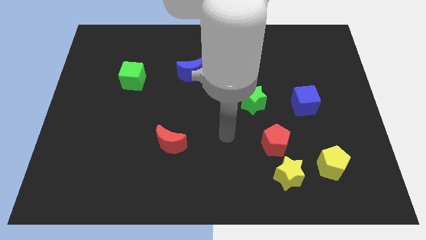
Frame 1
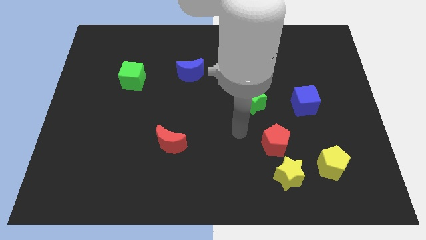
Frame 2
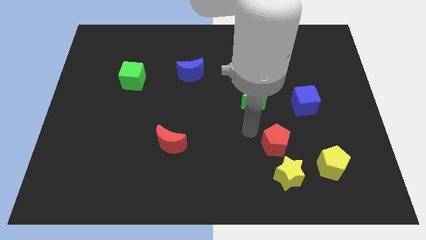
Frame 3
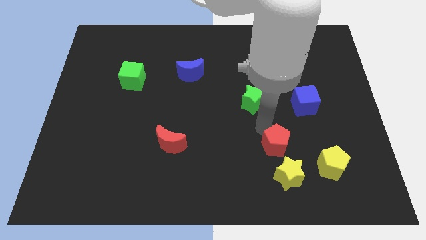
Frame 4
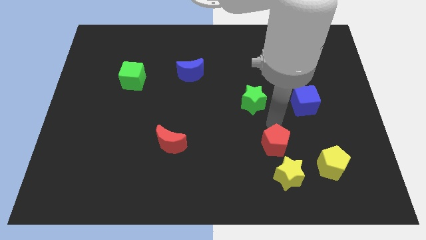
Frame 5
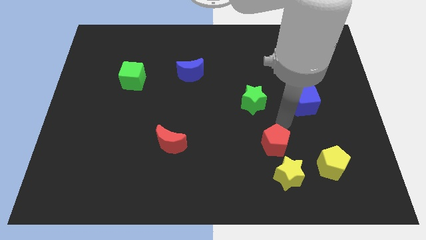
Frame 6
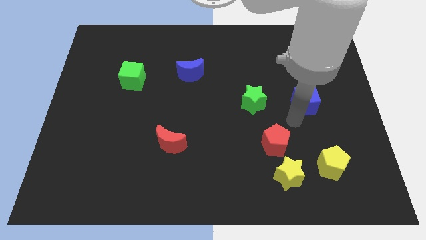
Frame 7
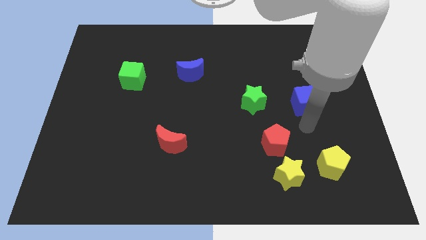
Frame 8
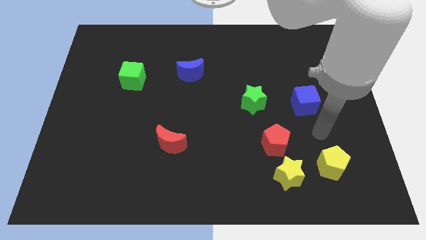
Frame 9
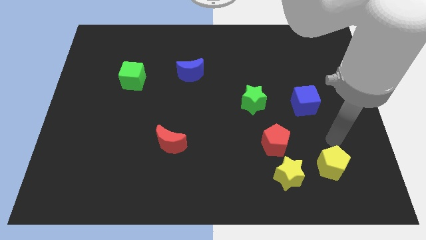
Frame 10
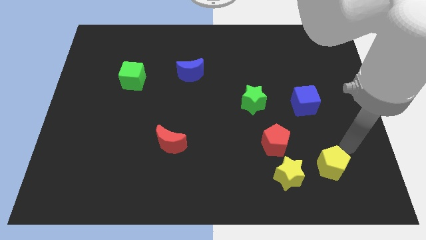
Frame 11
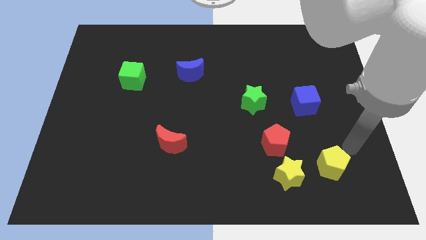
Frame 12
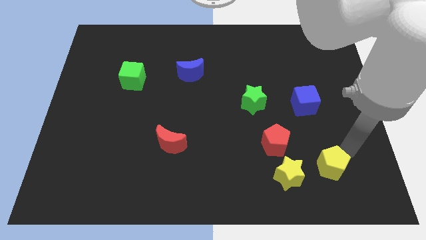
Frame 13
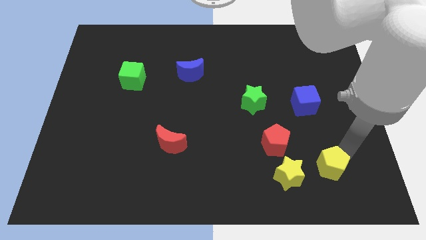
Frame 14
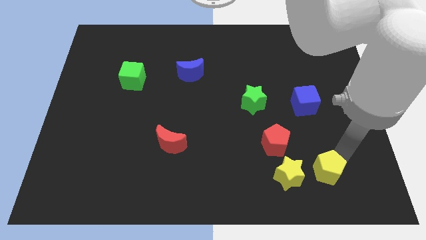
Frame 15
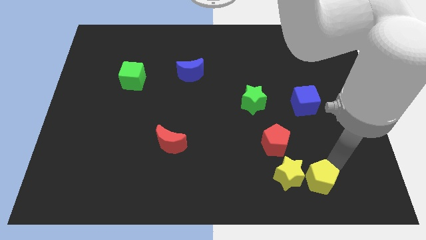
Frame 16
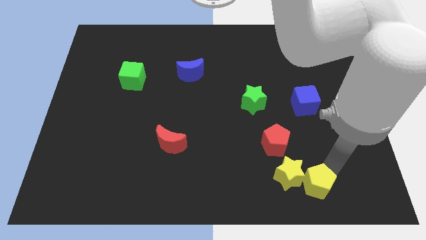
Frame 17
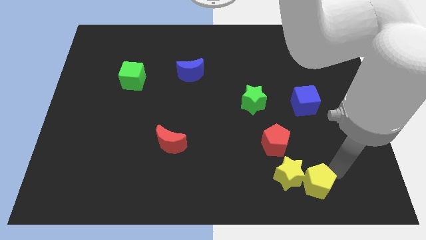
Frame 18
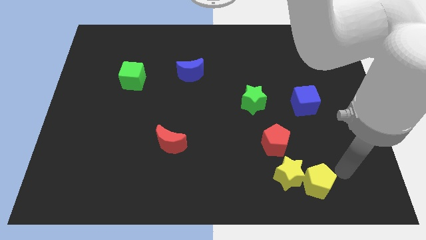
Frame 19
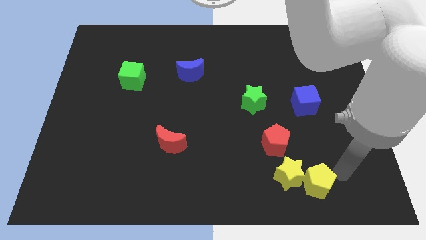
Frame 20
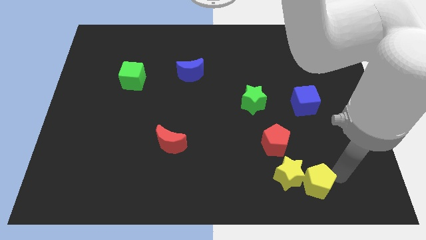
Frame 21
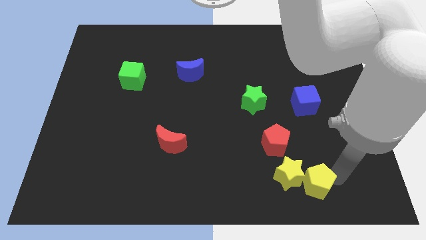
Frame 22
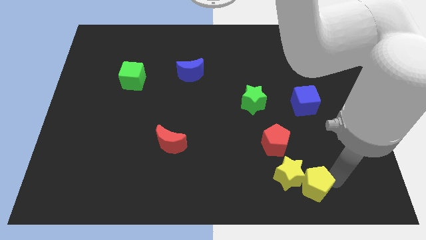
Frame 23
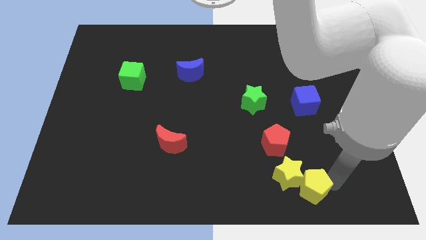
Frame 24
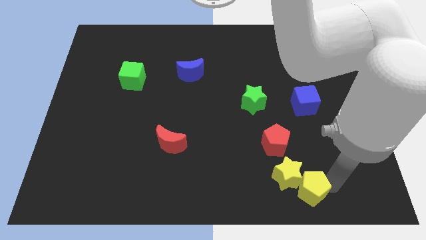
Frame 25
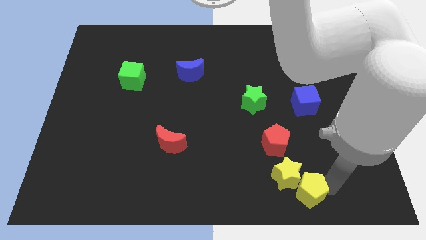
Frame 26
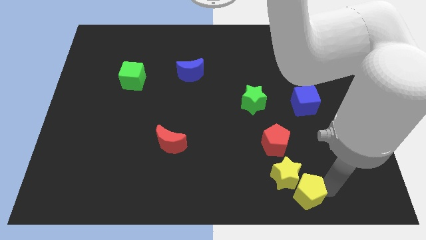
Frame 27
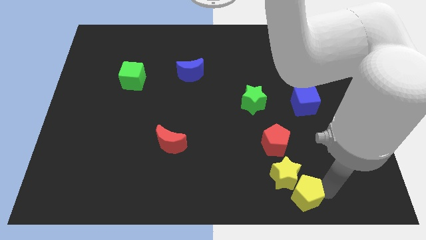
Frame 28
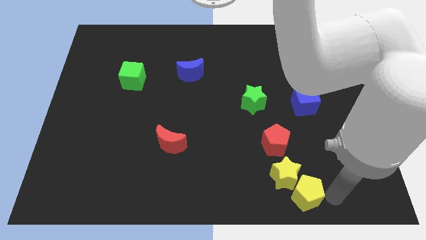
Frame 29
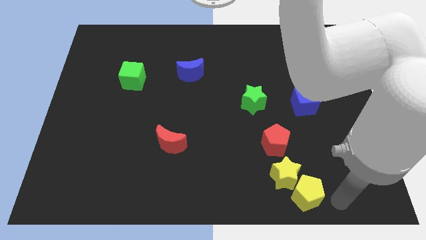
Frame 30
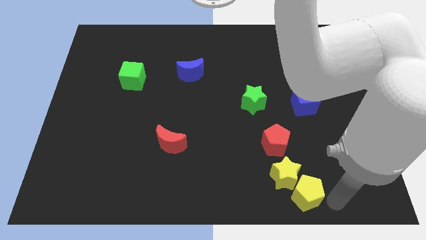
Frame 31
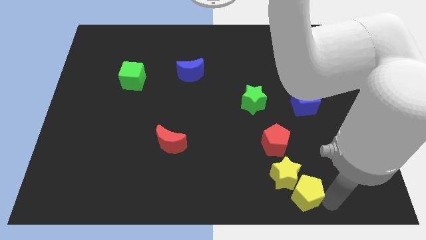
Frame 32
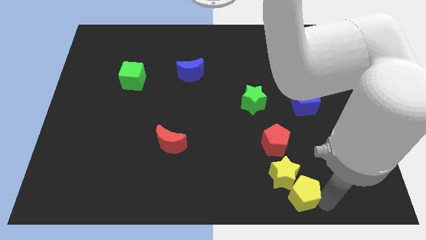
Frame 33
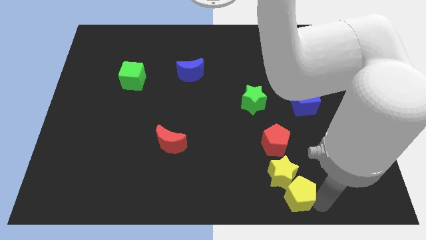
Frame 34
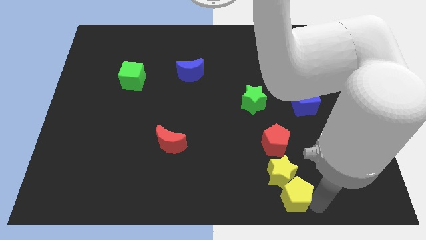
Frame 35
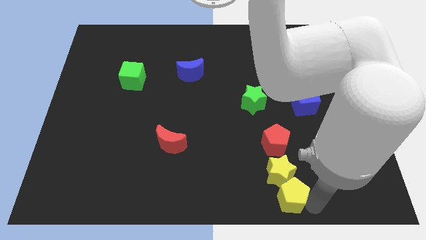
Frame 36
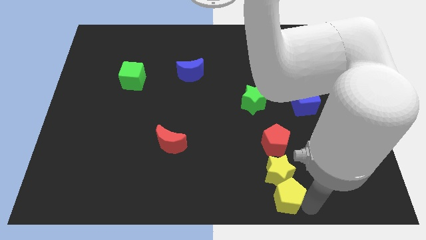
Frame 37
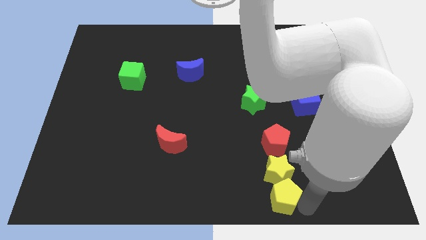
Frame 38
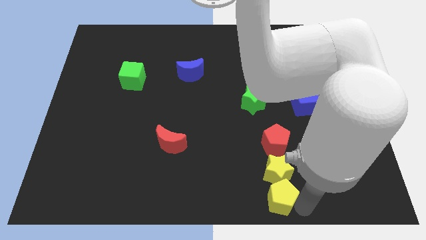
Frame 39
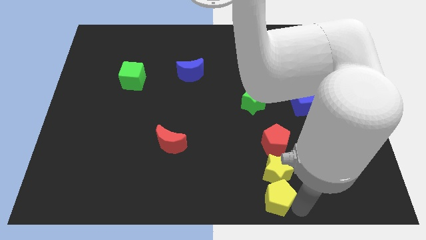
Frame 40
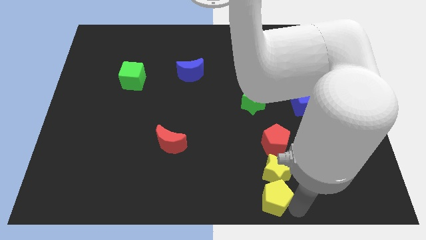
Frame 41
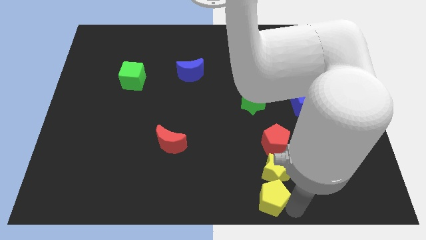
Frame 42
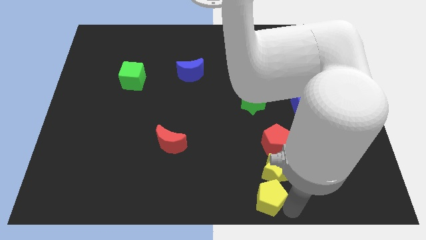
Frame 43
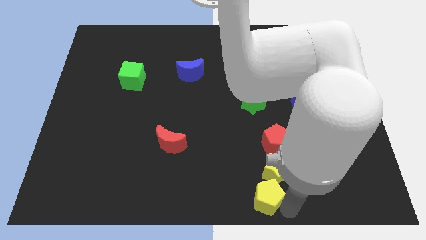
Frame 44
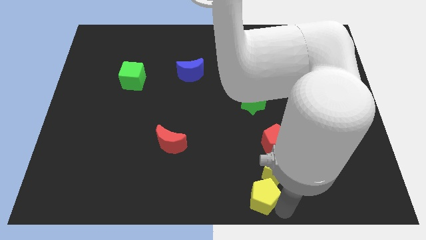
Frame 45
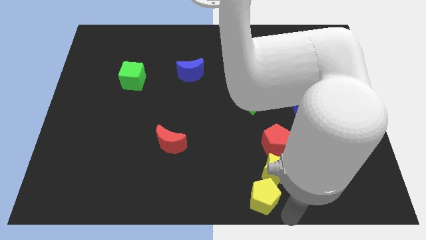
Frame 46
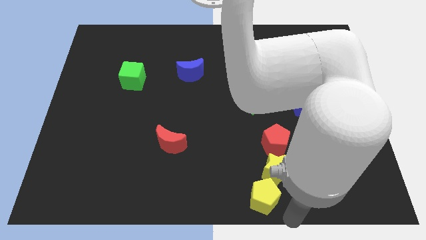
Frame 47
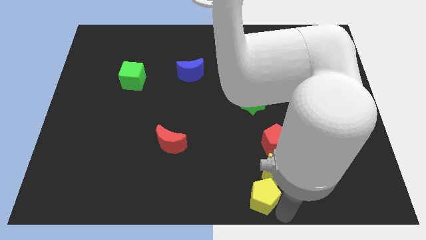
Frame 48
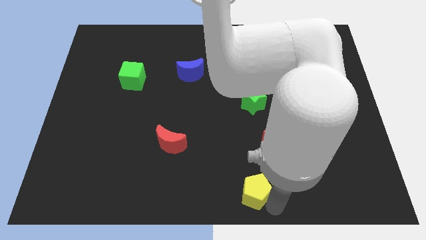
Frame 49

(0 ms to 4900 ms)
put the yellow pentagon just left of the yellow star

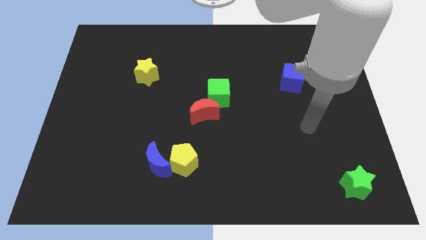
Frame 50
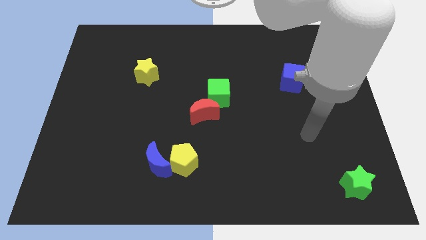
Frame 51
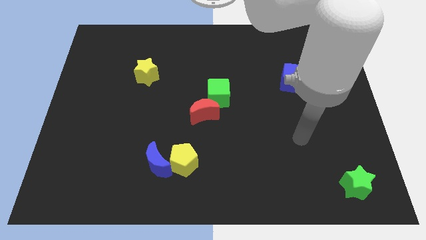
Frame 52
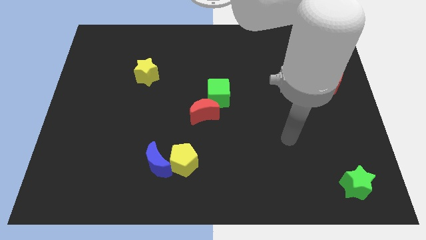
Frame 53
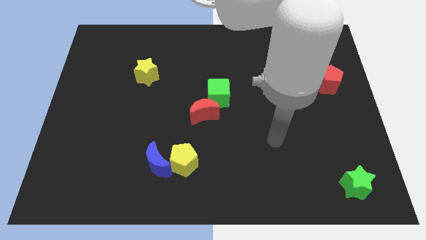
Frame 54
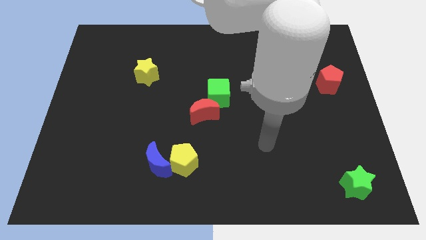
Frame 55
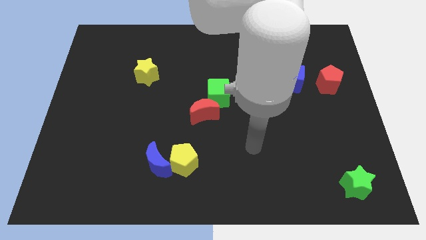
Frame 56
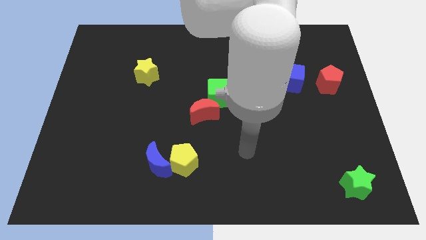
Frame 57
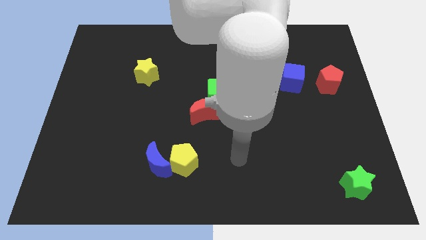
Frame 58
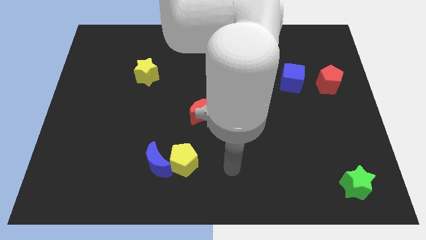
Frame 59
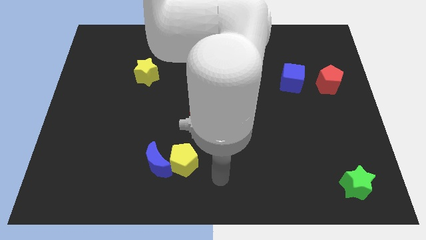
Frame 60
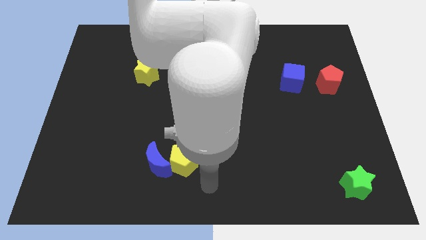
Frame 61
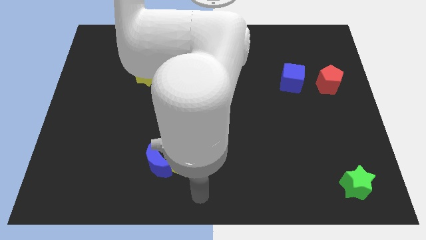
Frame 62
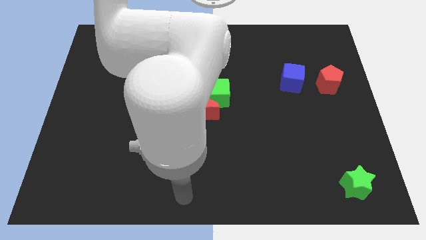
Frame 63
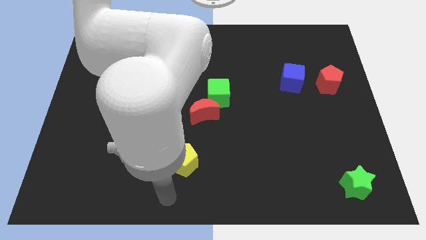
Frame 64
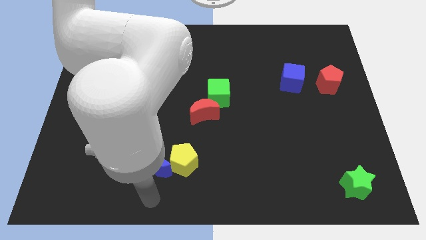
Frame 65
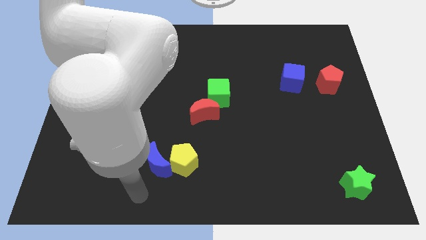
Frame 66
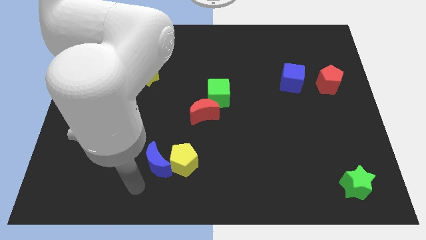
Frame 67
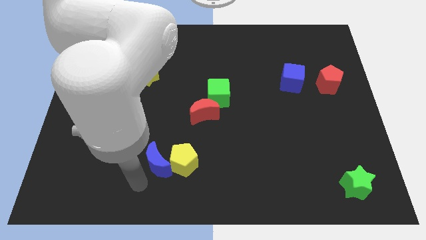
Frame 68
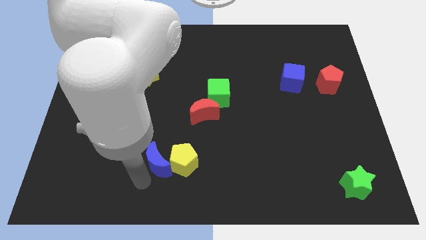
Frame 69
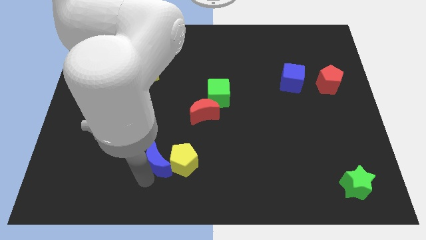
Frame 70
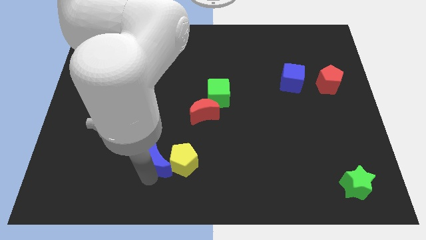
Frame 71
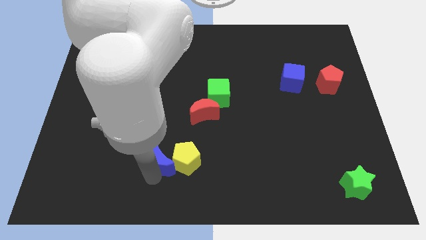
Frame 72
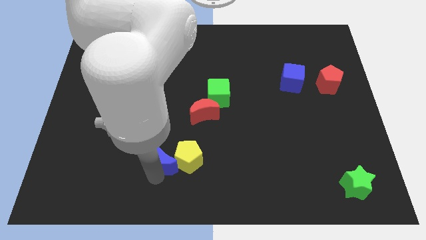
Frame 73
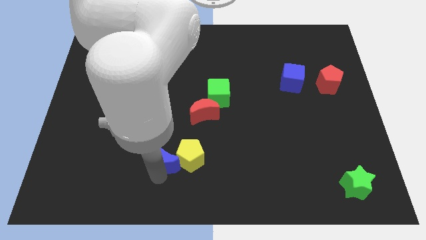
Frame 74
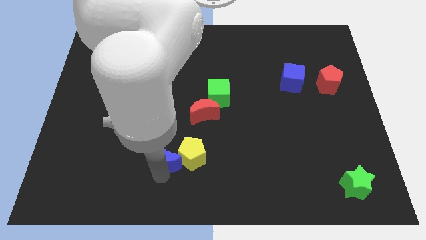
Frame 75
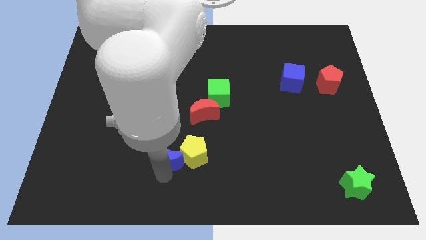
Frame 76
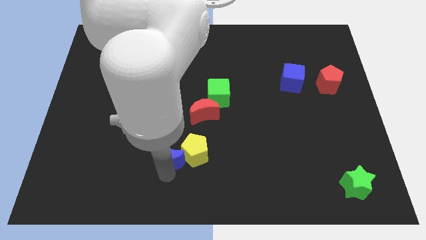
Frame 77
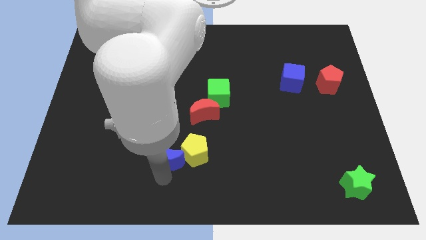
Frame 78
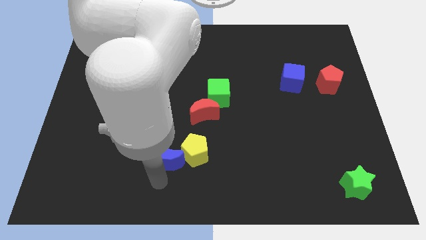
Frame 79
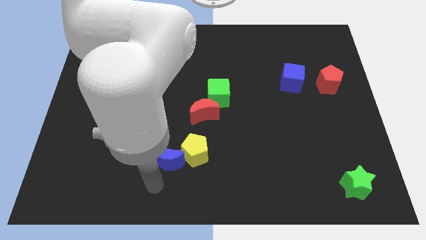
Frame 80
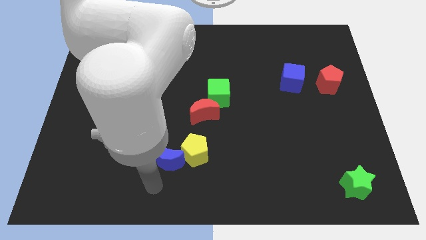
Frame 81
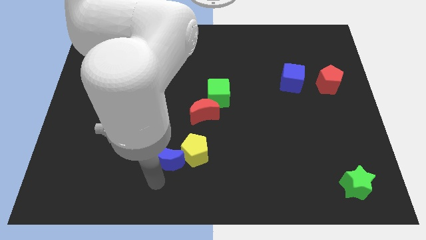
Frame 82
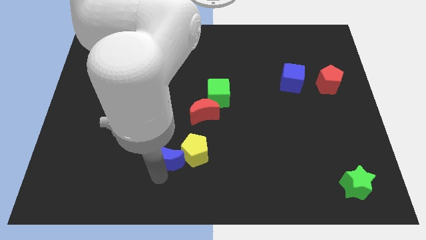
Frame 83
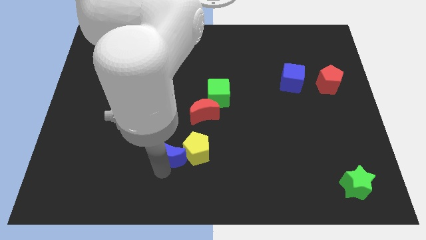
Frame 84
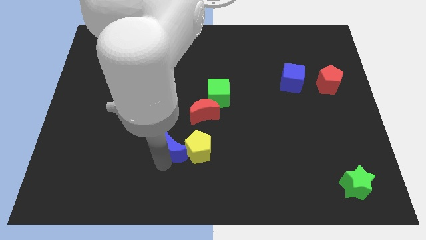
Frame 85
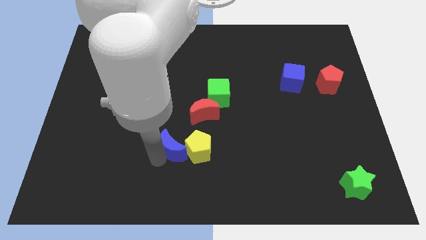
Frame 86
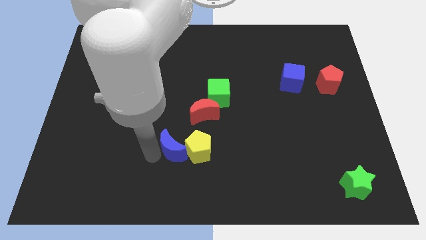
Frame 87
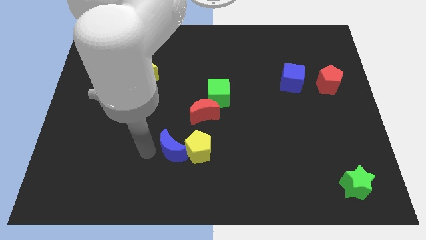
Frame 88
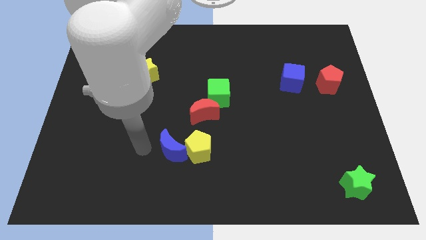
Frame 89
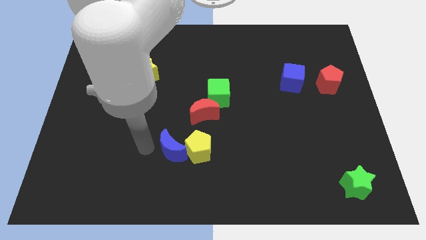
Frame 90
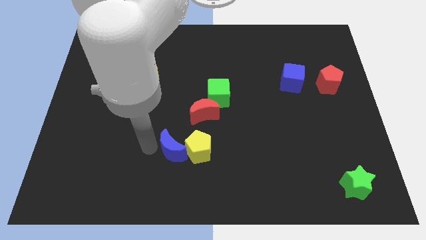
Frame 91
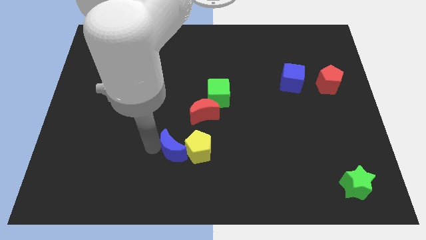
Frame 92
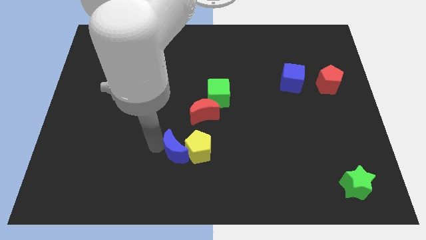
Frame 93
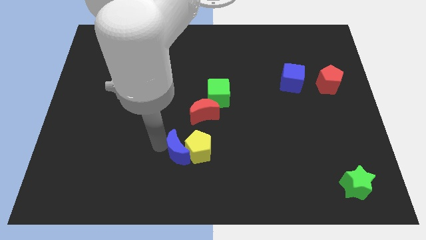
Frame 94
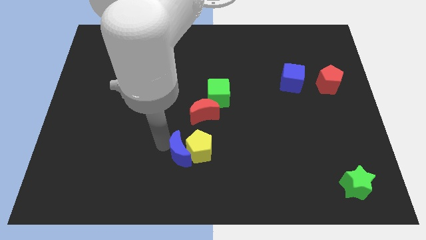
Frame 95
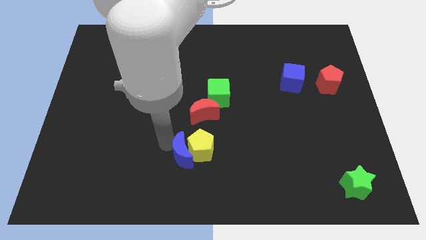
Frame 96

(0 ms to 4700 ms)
move the blue moon to the bottom side of the red moon
